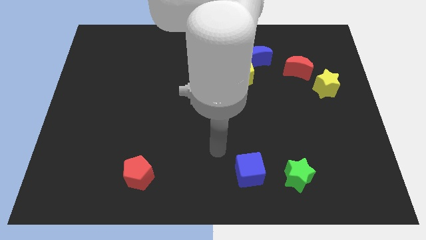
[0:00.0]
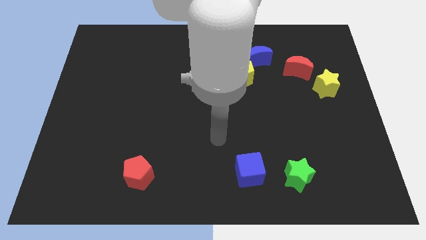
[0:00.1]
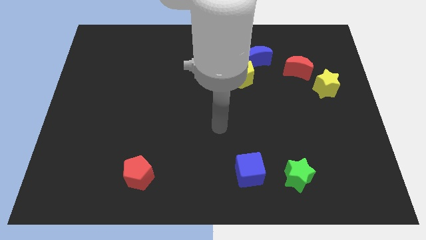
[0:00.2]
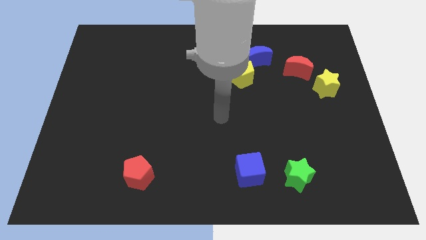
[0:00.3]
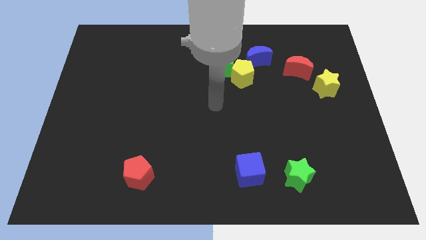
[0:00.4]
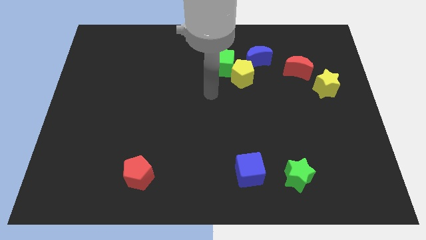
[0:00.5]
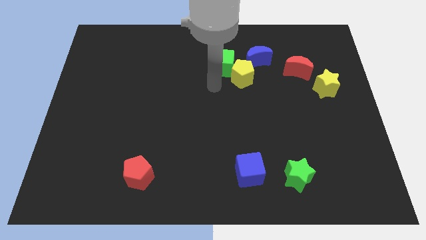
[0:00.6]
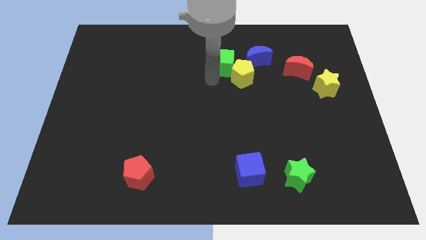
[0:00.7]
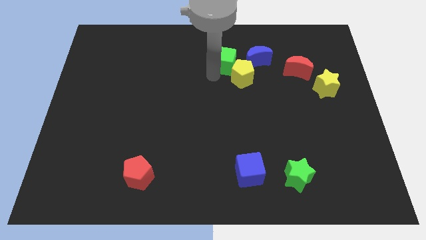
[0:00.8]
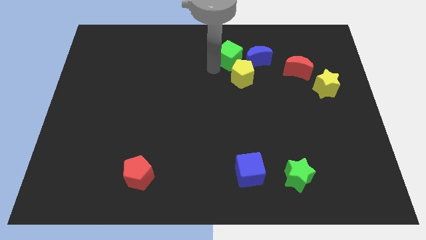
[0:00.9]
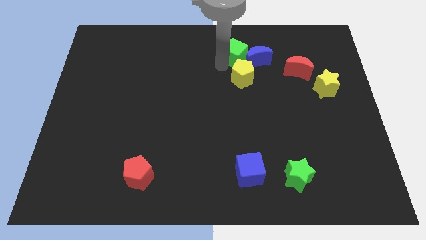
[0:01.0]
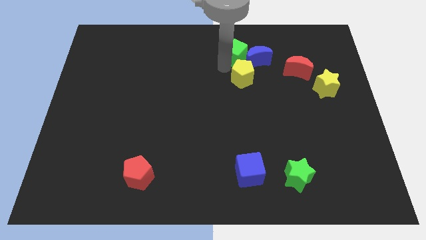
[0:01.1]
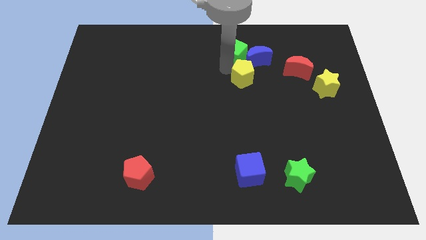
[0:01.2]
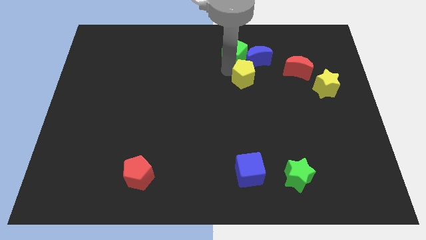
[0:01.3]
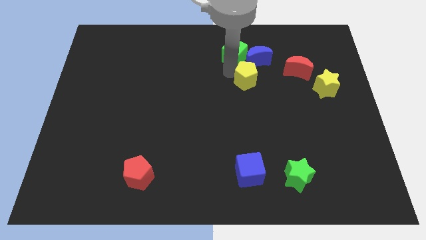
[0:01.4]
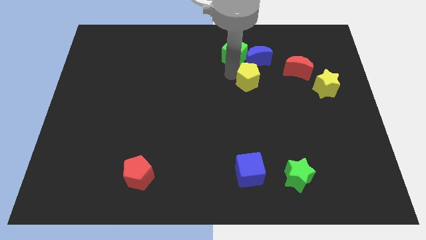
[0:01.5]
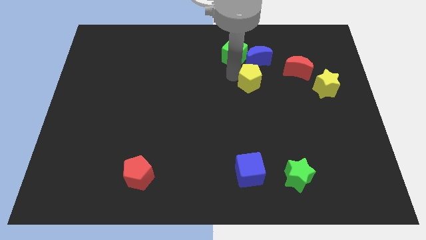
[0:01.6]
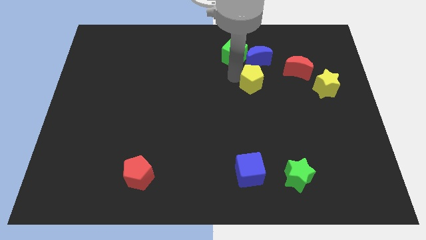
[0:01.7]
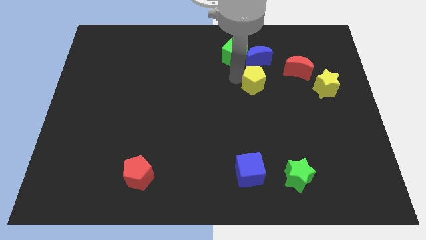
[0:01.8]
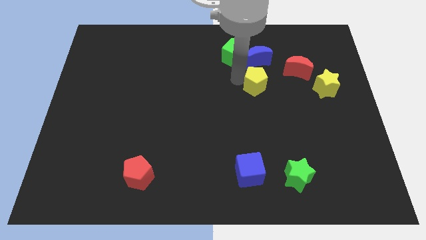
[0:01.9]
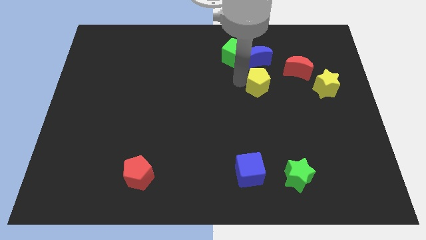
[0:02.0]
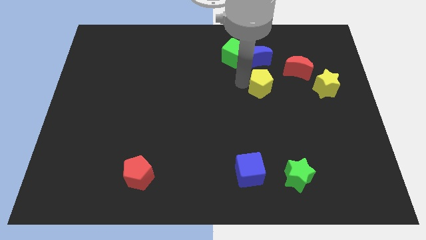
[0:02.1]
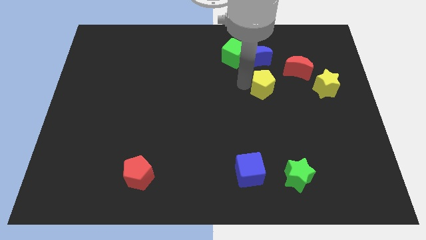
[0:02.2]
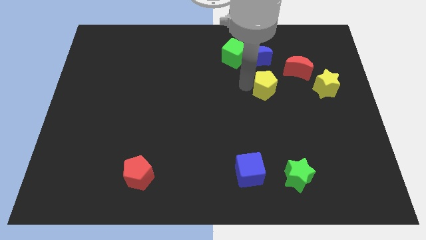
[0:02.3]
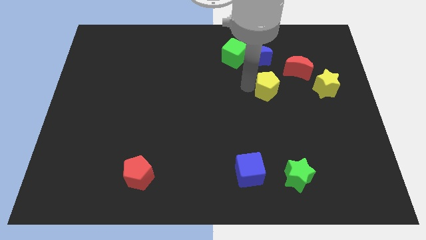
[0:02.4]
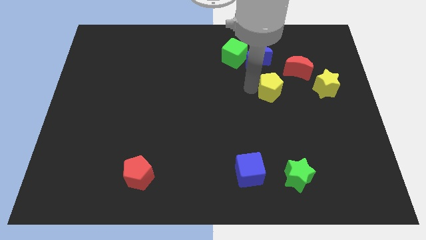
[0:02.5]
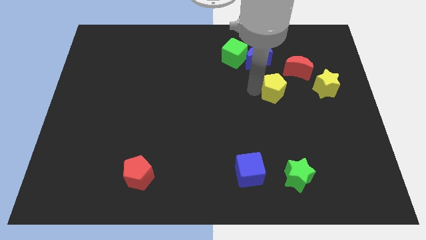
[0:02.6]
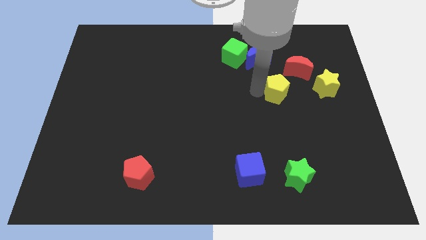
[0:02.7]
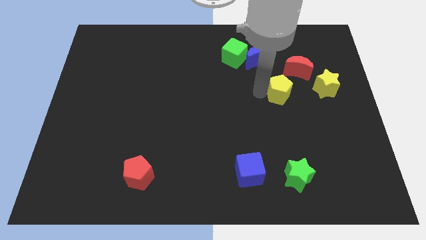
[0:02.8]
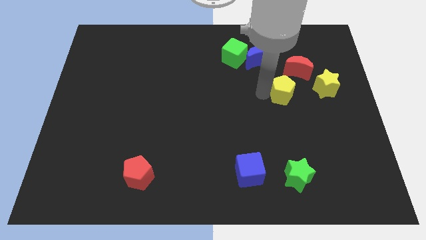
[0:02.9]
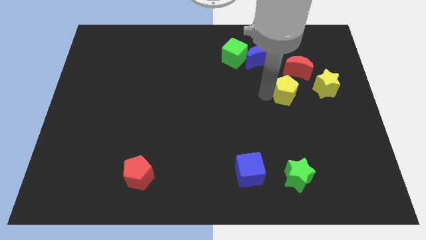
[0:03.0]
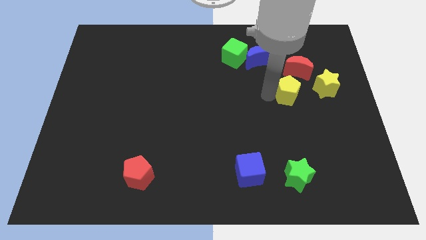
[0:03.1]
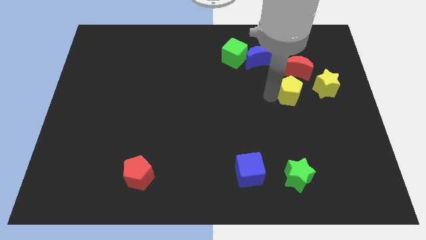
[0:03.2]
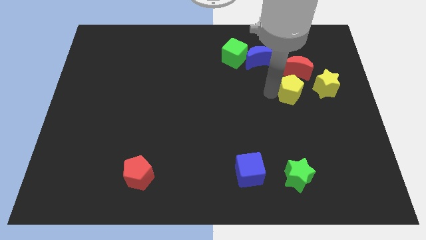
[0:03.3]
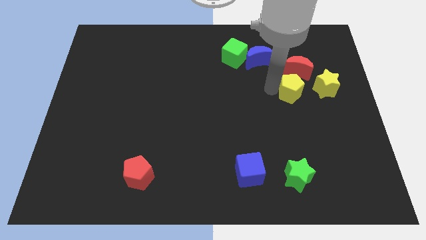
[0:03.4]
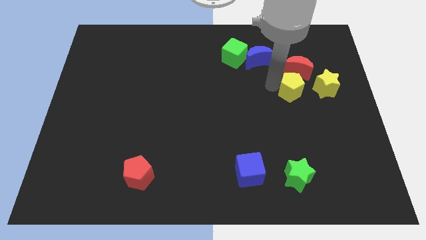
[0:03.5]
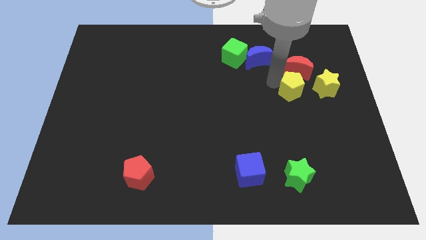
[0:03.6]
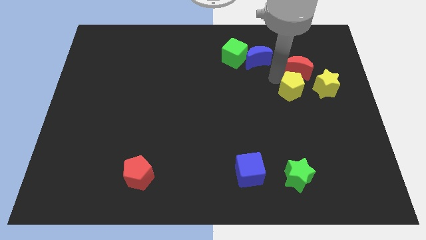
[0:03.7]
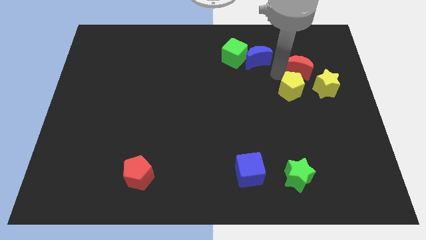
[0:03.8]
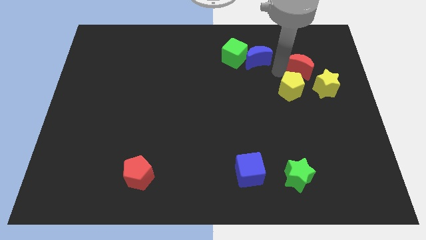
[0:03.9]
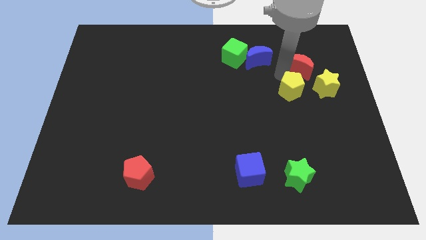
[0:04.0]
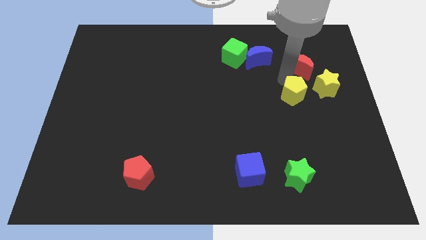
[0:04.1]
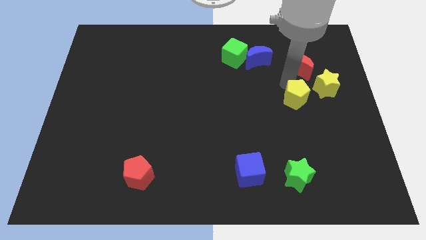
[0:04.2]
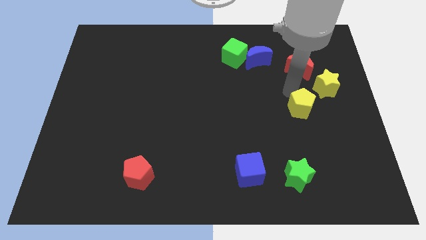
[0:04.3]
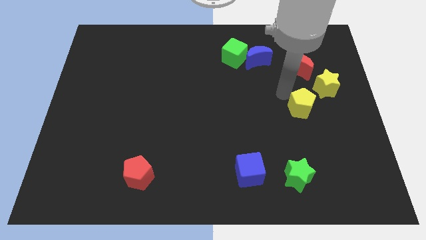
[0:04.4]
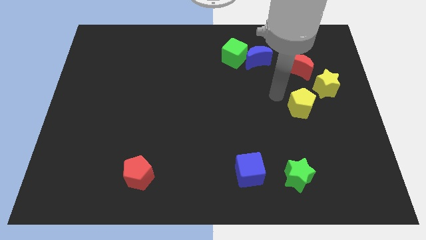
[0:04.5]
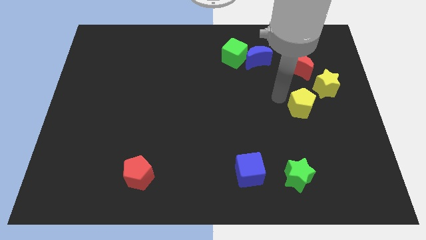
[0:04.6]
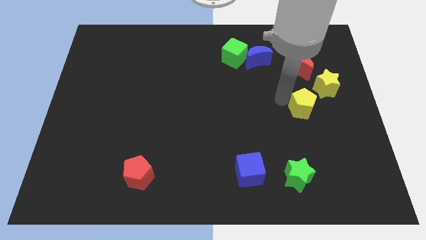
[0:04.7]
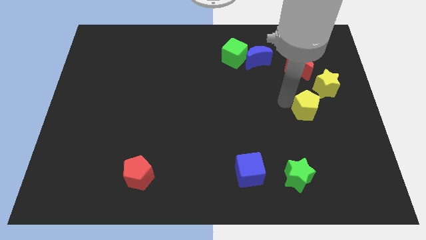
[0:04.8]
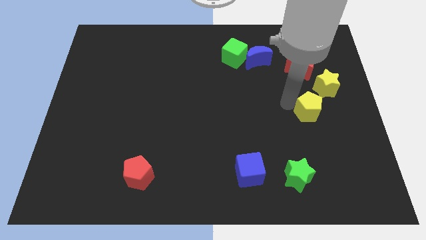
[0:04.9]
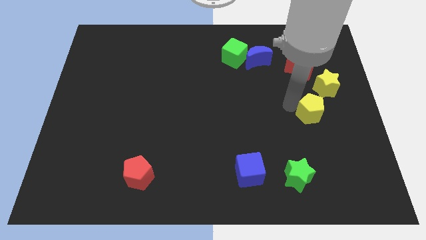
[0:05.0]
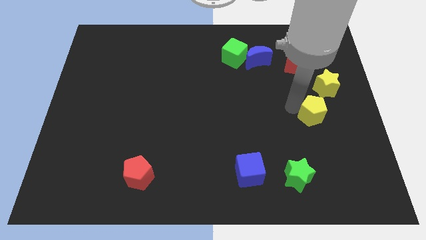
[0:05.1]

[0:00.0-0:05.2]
put the yellow pentagon to the bottom side of the yellow star

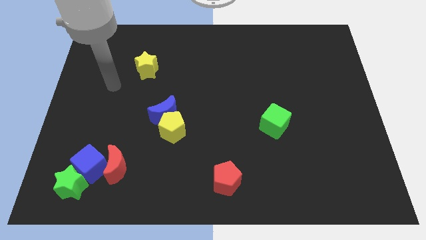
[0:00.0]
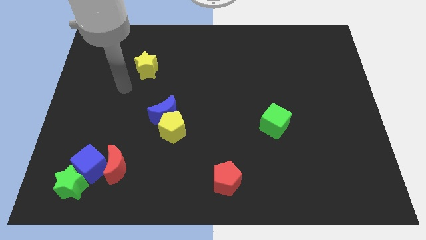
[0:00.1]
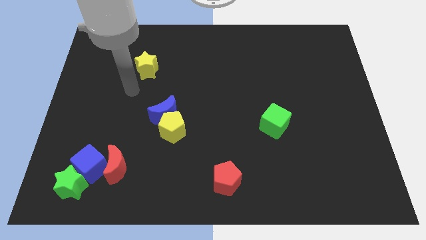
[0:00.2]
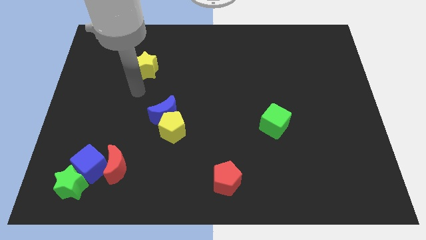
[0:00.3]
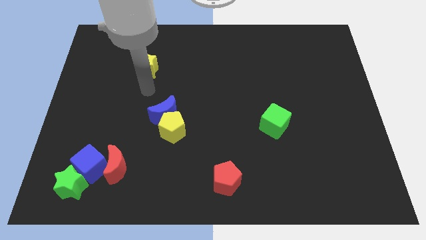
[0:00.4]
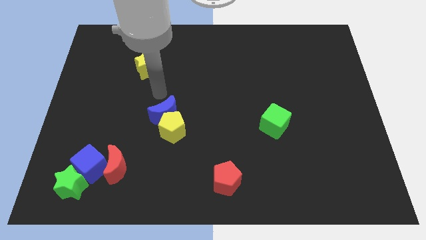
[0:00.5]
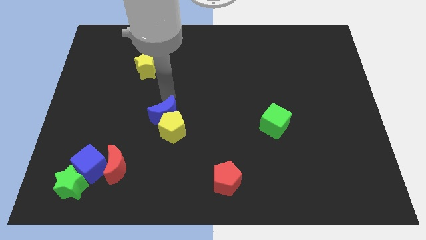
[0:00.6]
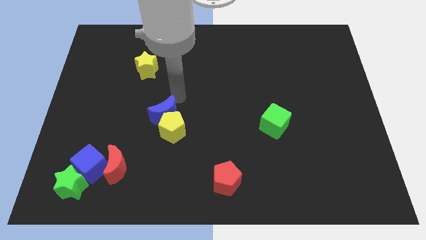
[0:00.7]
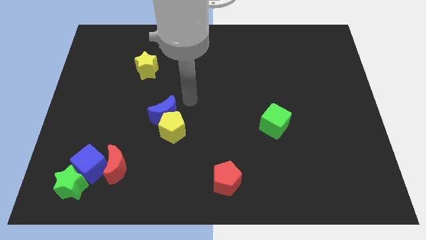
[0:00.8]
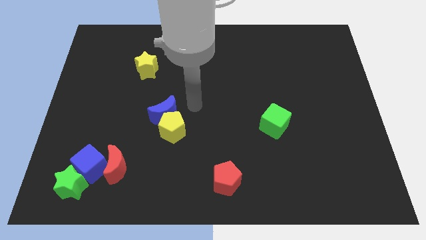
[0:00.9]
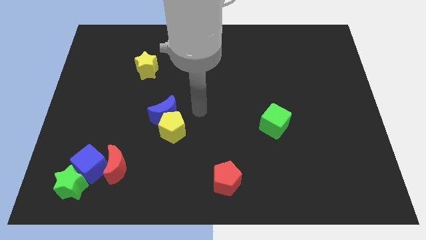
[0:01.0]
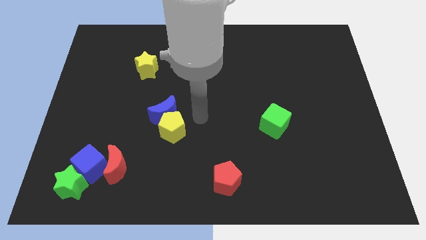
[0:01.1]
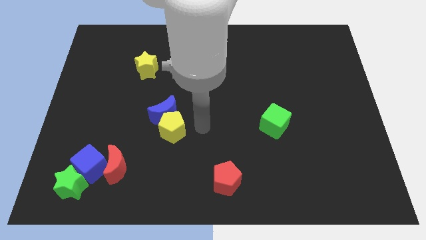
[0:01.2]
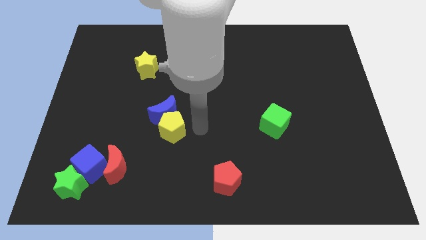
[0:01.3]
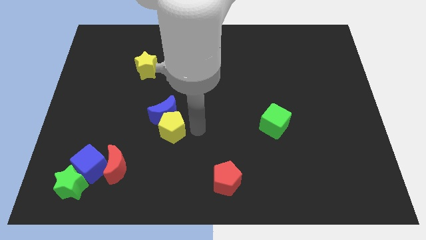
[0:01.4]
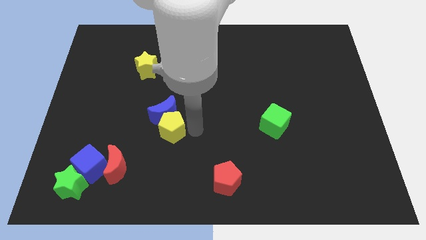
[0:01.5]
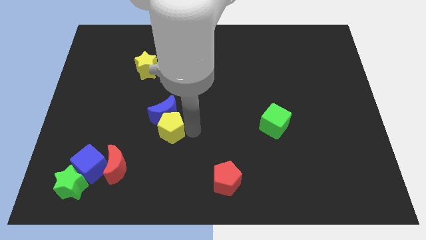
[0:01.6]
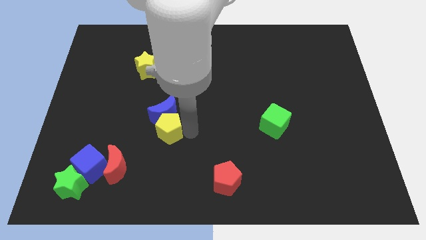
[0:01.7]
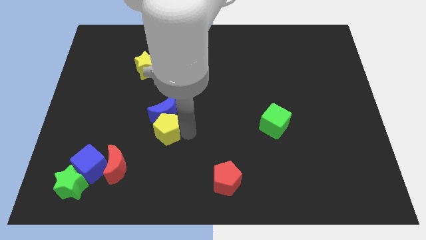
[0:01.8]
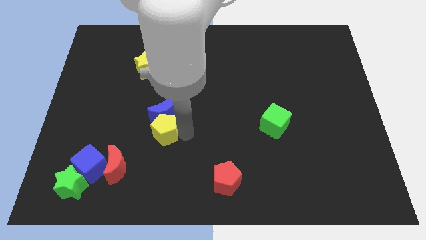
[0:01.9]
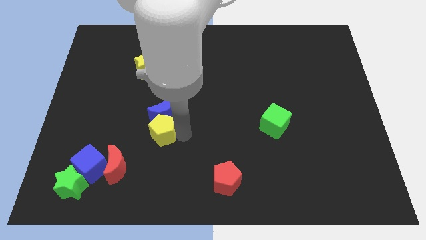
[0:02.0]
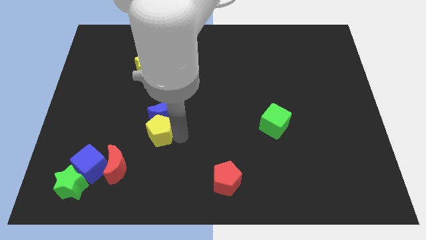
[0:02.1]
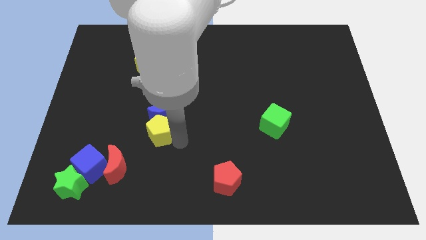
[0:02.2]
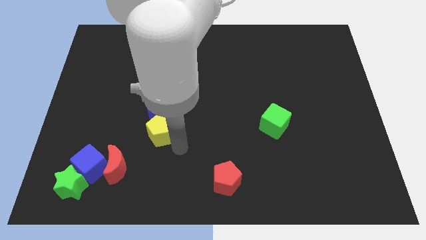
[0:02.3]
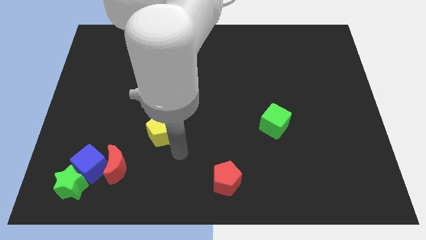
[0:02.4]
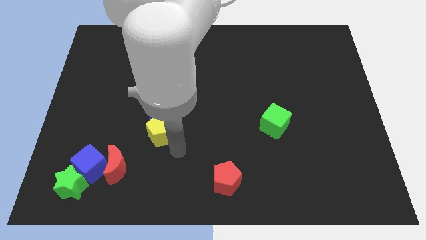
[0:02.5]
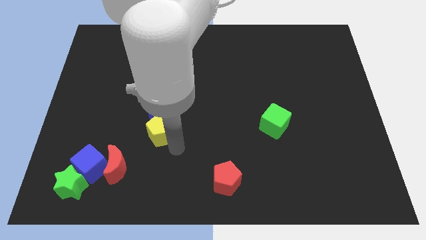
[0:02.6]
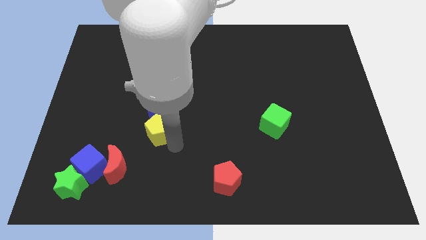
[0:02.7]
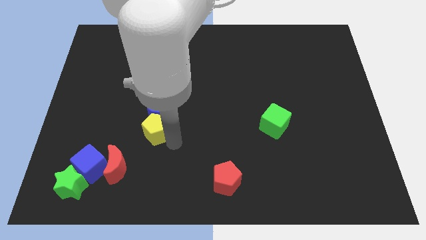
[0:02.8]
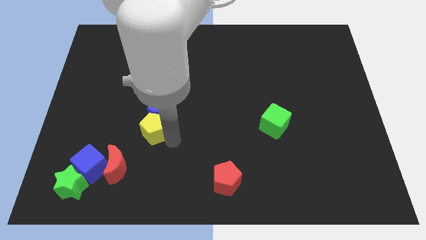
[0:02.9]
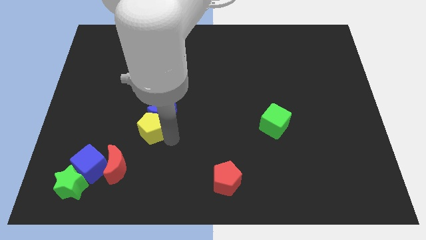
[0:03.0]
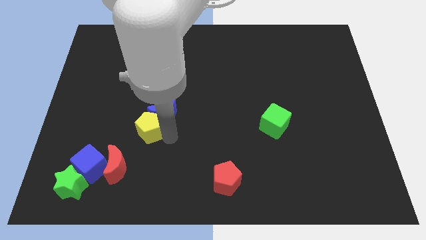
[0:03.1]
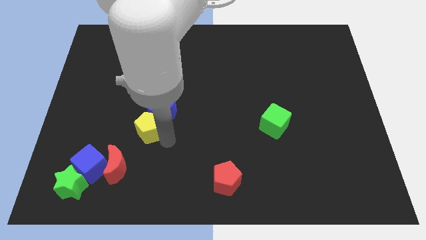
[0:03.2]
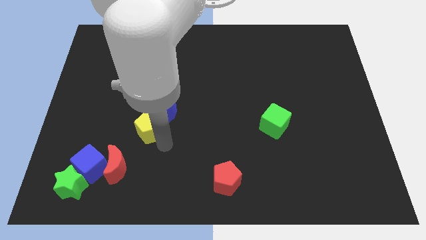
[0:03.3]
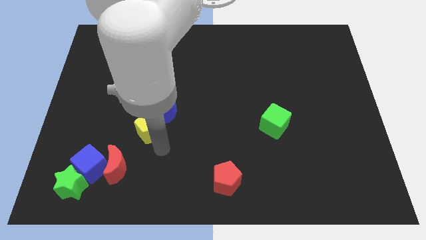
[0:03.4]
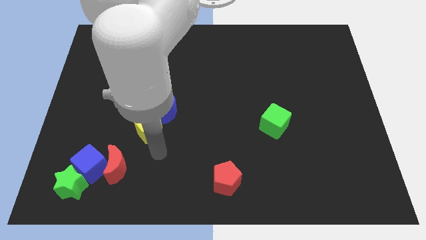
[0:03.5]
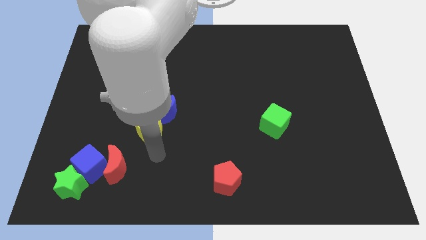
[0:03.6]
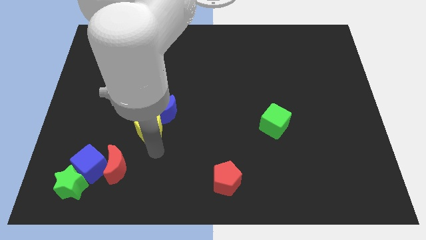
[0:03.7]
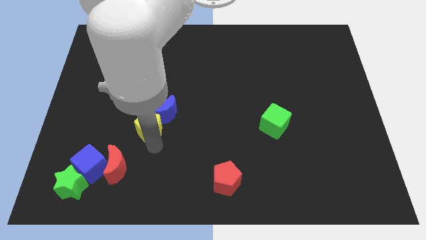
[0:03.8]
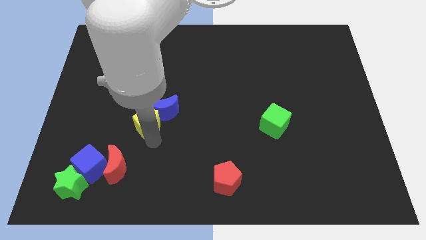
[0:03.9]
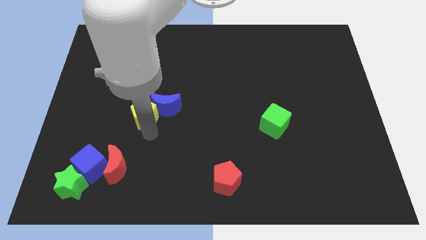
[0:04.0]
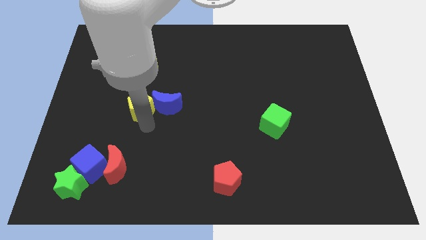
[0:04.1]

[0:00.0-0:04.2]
move the yellow pentagon to the top left of the blue moon
